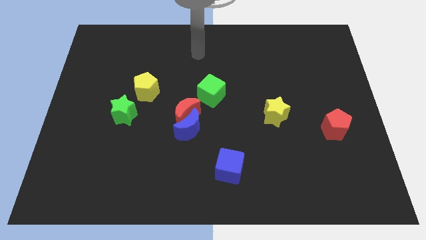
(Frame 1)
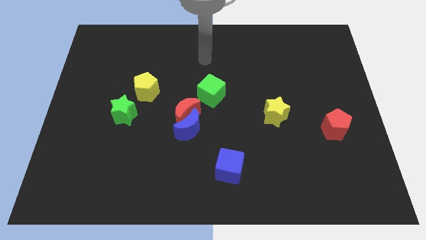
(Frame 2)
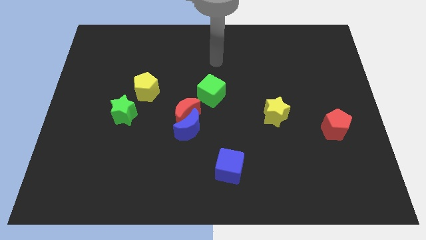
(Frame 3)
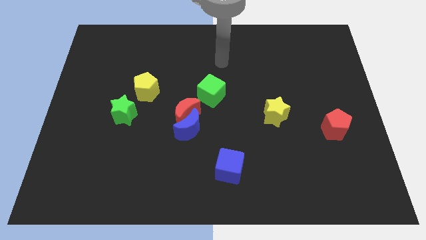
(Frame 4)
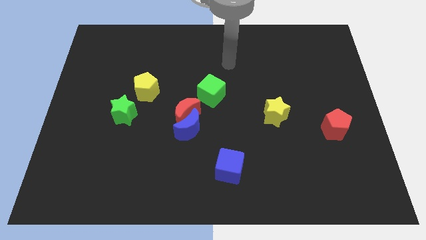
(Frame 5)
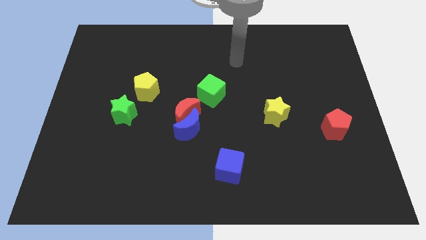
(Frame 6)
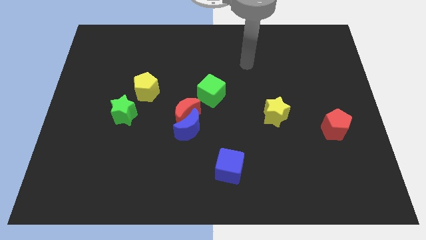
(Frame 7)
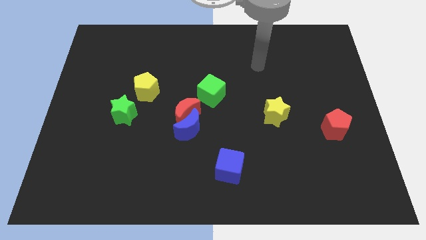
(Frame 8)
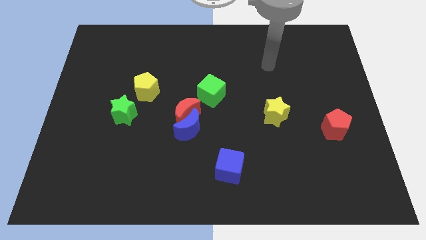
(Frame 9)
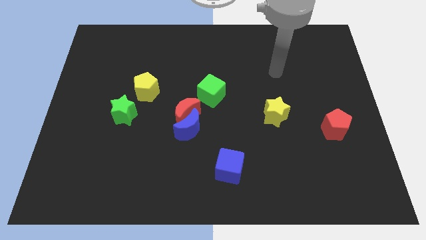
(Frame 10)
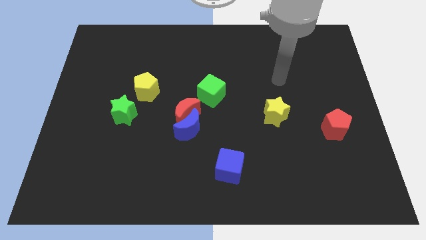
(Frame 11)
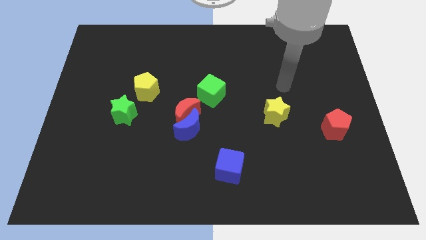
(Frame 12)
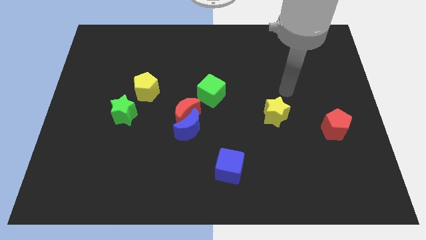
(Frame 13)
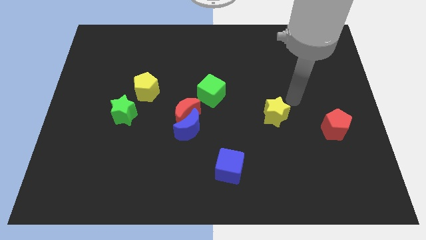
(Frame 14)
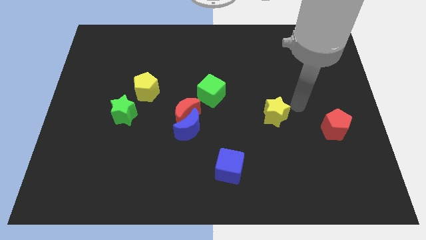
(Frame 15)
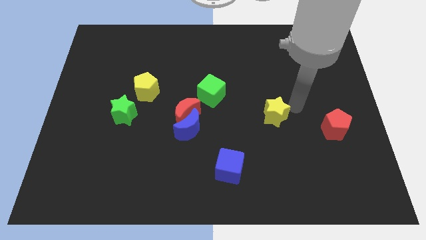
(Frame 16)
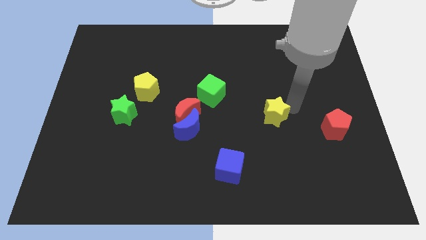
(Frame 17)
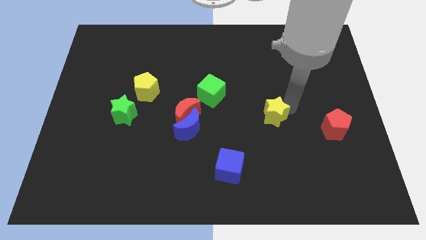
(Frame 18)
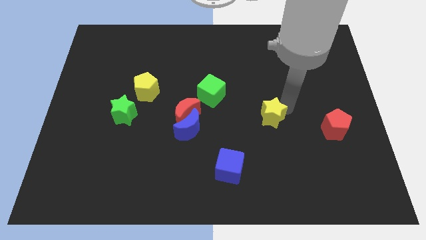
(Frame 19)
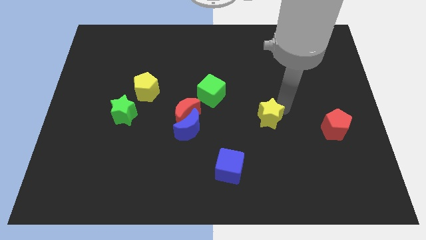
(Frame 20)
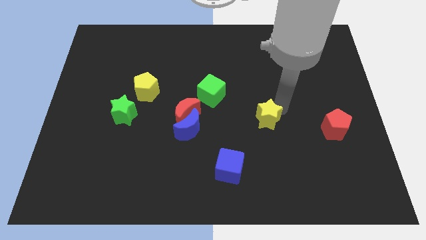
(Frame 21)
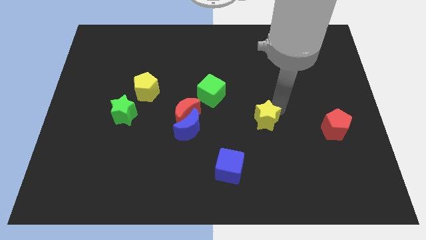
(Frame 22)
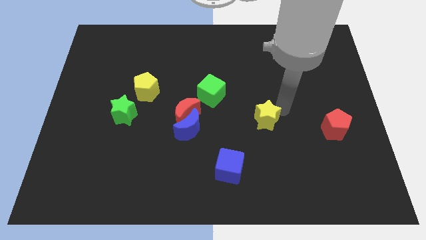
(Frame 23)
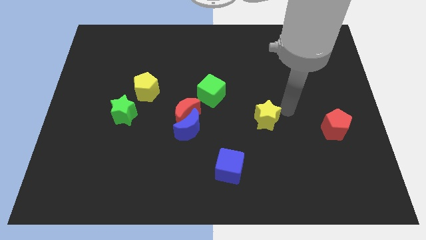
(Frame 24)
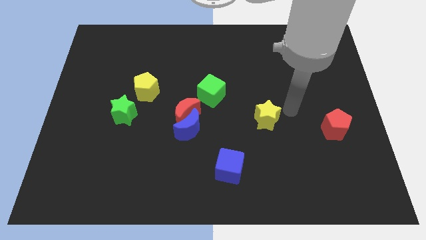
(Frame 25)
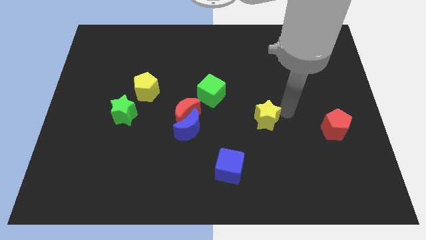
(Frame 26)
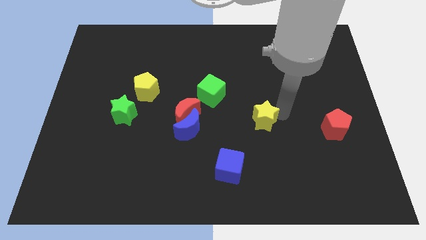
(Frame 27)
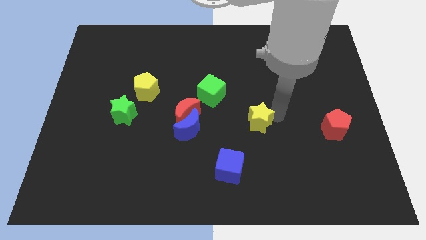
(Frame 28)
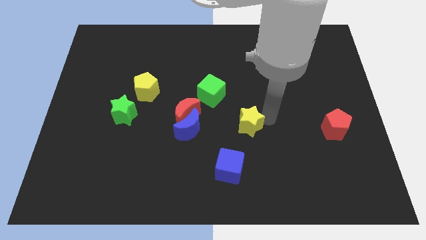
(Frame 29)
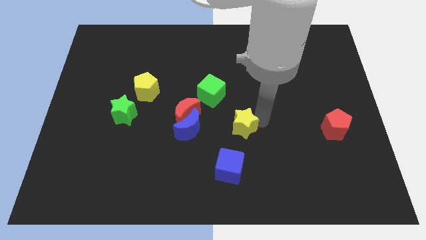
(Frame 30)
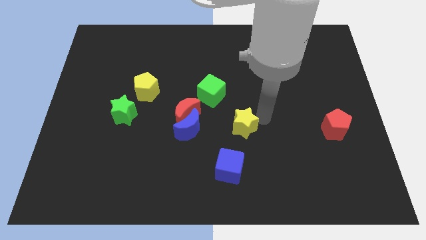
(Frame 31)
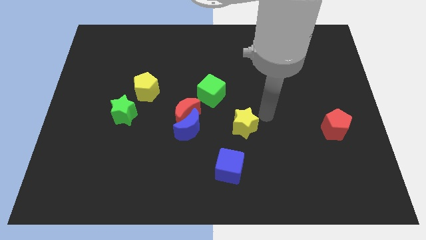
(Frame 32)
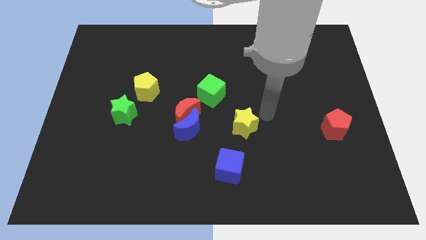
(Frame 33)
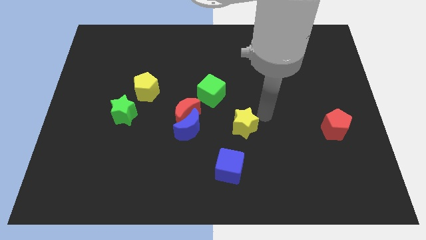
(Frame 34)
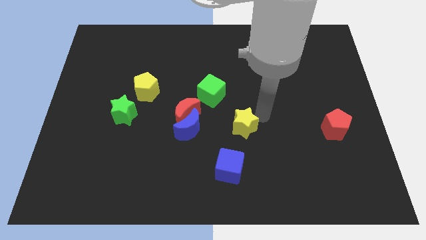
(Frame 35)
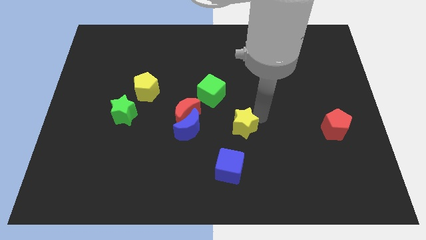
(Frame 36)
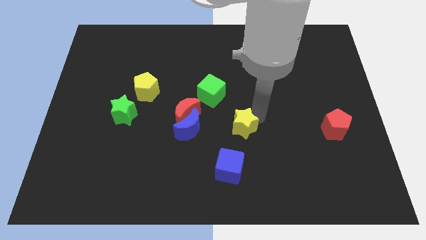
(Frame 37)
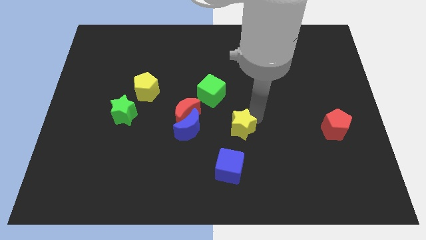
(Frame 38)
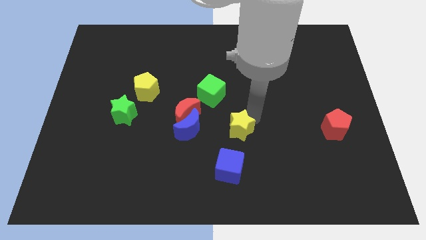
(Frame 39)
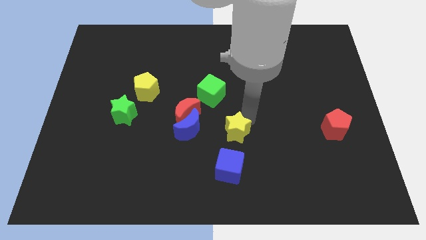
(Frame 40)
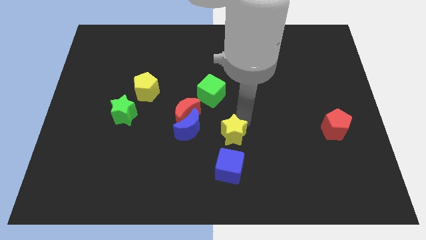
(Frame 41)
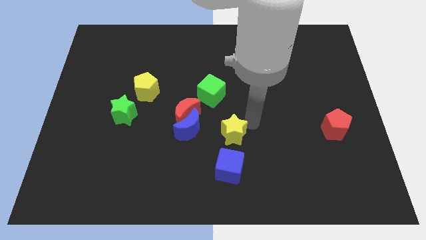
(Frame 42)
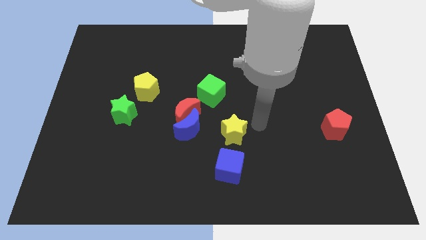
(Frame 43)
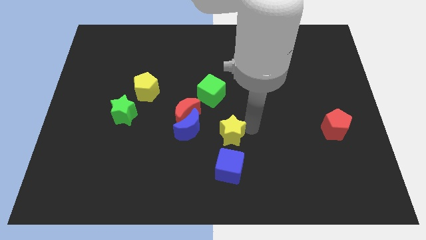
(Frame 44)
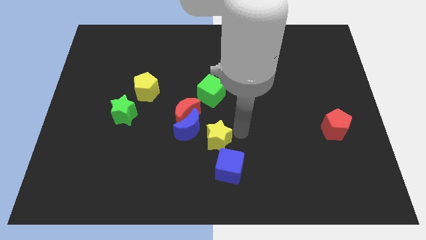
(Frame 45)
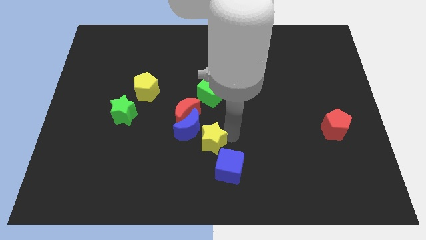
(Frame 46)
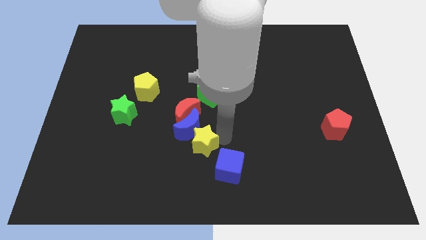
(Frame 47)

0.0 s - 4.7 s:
put the yellow star to the bottom side of the red moon

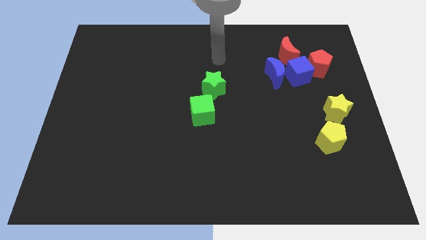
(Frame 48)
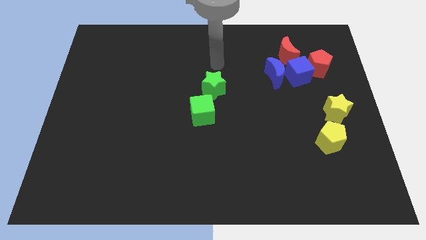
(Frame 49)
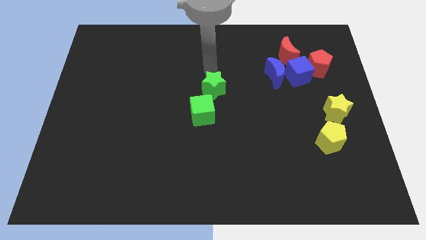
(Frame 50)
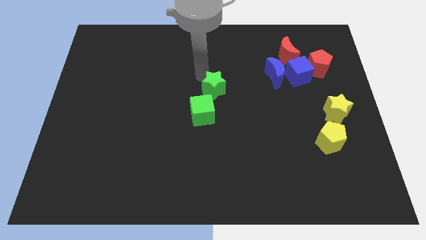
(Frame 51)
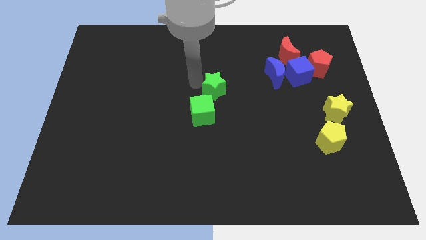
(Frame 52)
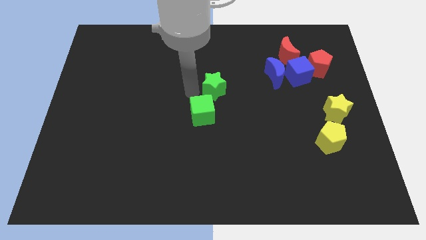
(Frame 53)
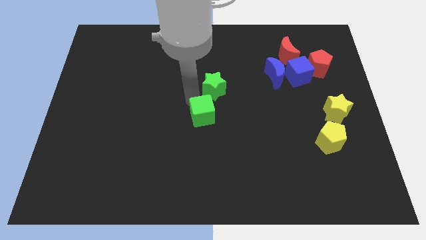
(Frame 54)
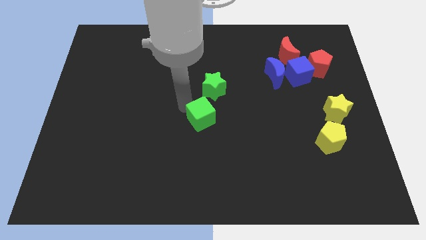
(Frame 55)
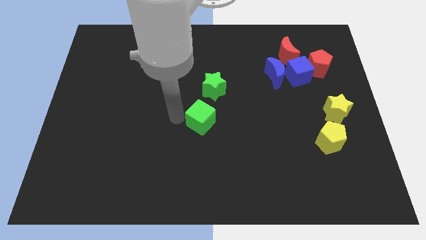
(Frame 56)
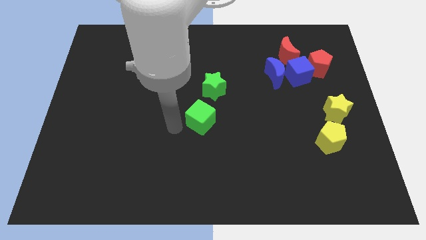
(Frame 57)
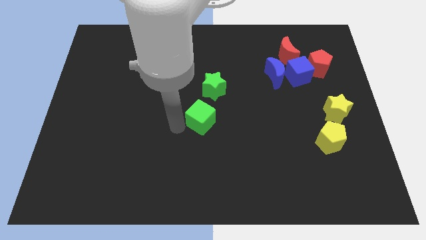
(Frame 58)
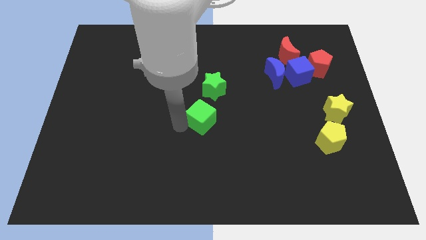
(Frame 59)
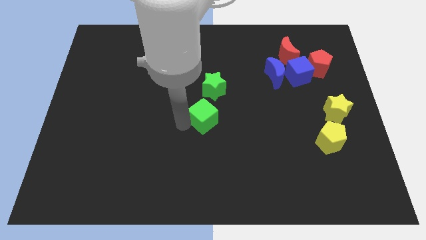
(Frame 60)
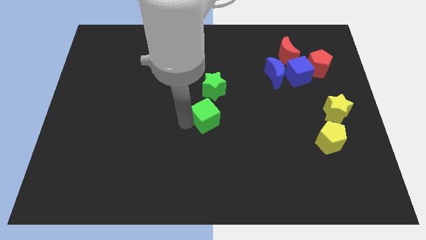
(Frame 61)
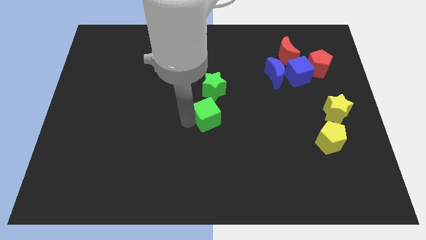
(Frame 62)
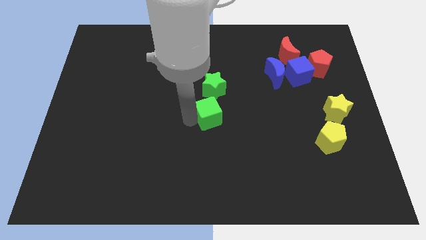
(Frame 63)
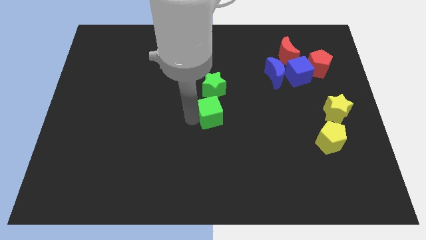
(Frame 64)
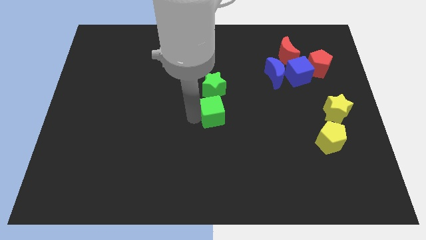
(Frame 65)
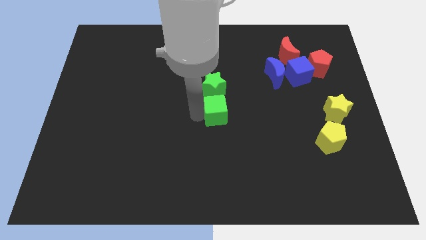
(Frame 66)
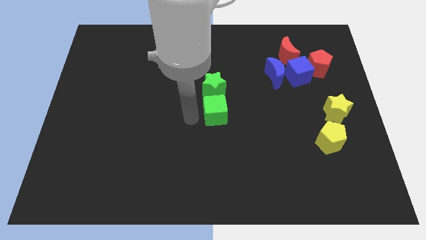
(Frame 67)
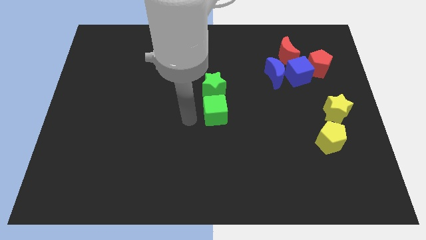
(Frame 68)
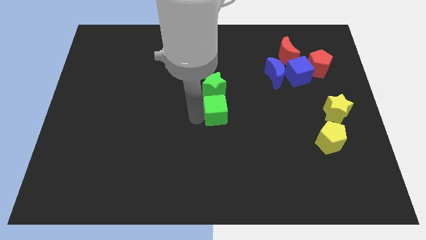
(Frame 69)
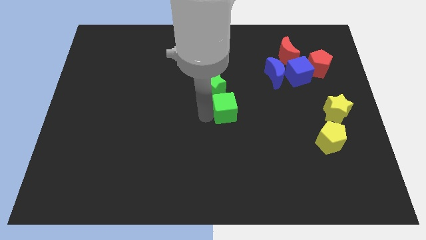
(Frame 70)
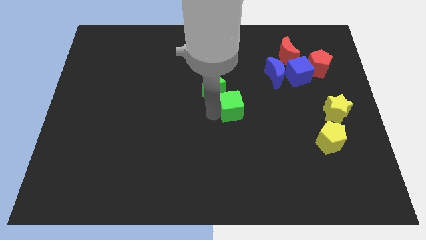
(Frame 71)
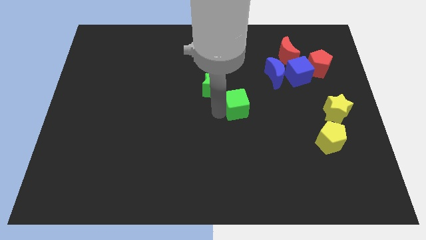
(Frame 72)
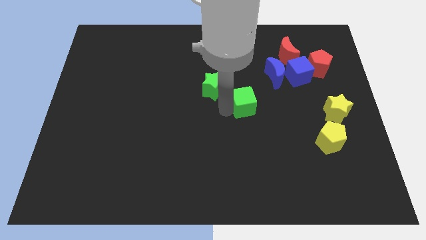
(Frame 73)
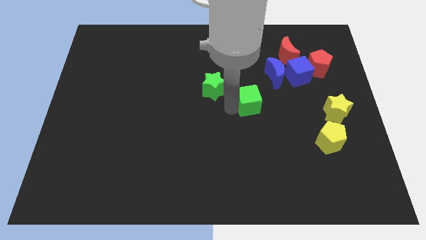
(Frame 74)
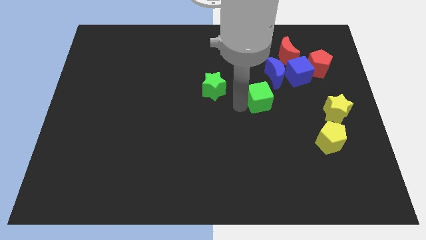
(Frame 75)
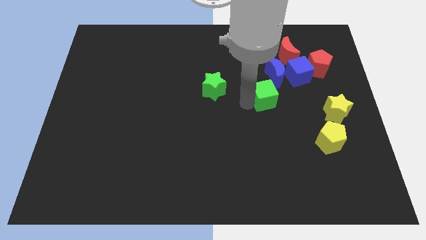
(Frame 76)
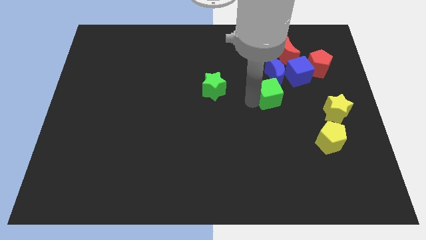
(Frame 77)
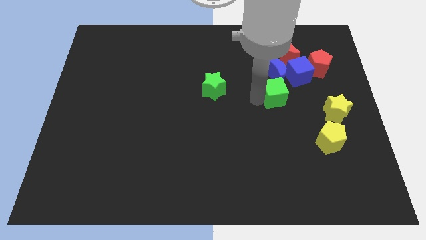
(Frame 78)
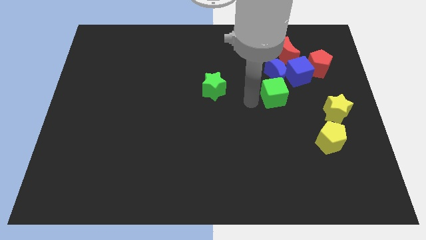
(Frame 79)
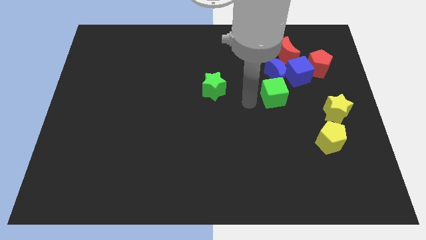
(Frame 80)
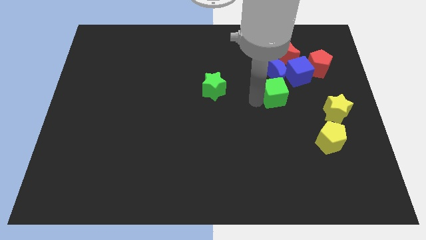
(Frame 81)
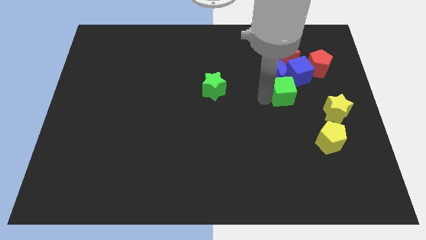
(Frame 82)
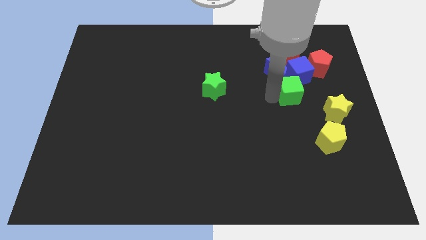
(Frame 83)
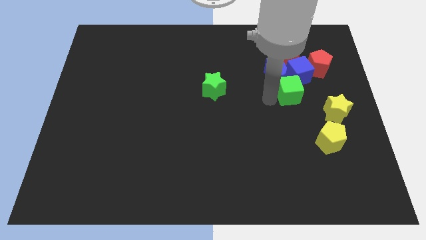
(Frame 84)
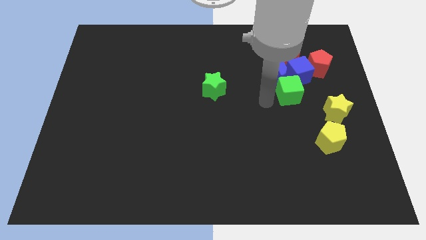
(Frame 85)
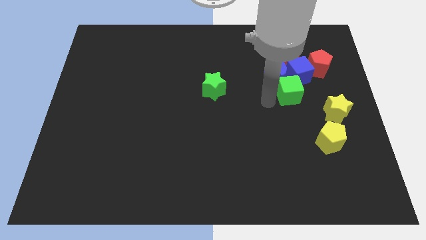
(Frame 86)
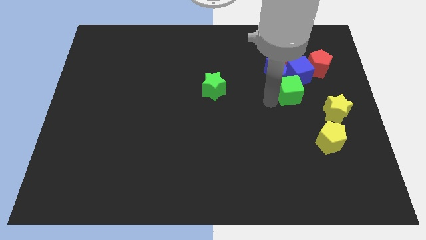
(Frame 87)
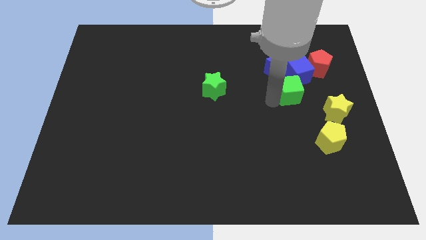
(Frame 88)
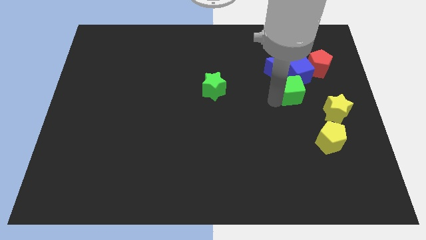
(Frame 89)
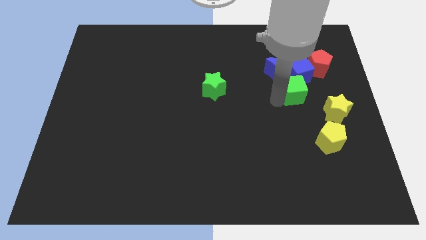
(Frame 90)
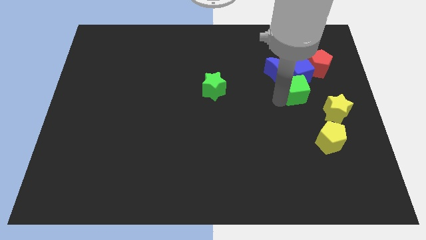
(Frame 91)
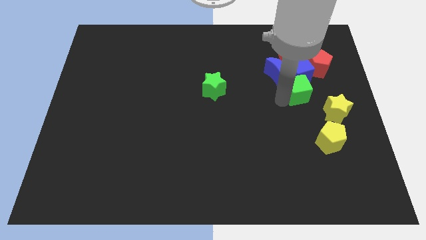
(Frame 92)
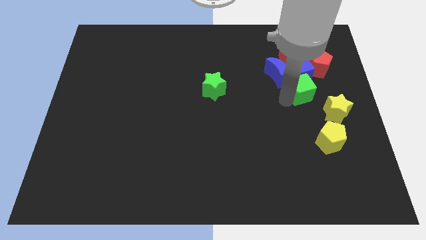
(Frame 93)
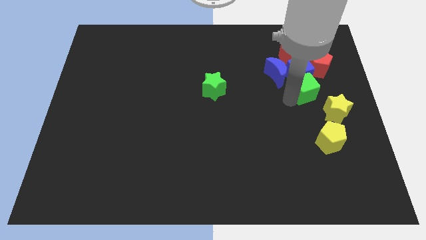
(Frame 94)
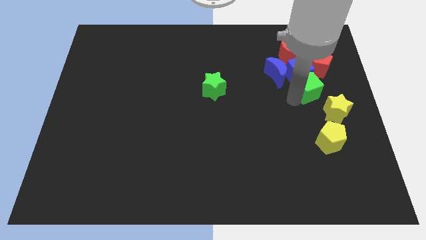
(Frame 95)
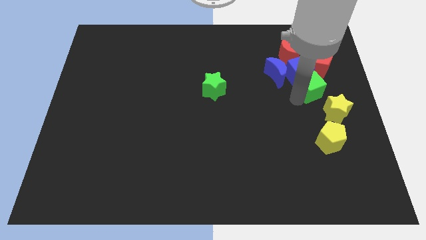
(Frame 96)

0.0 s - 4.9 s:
put the green cube to the top side of the yellow star
